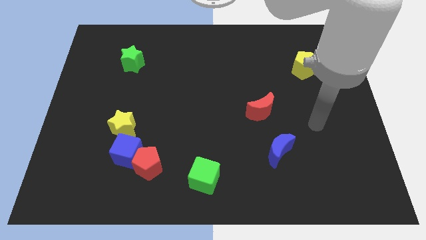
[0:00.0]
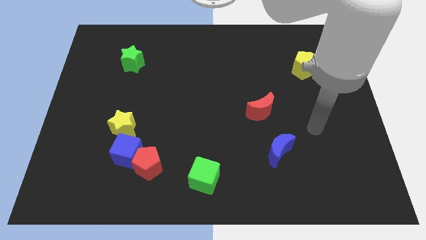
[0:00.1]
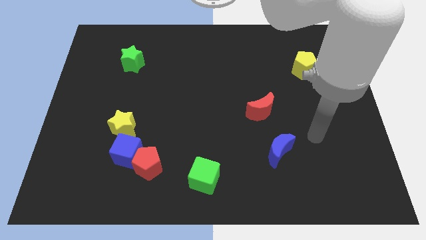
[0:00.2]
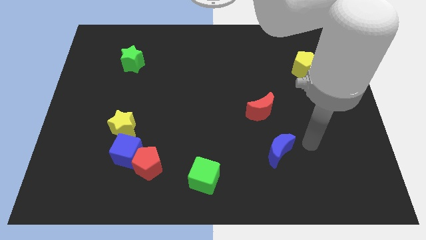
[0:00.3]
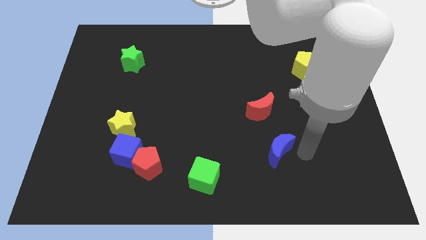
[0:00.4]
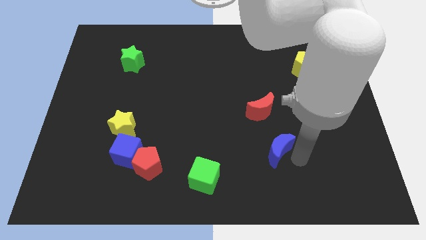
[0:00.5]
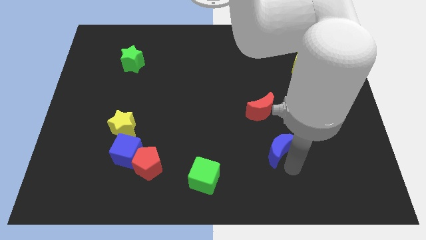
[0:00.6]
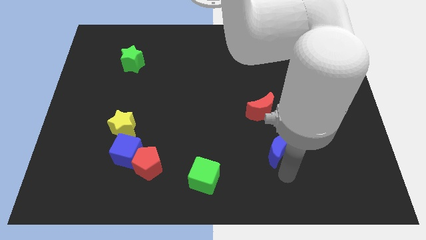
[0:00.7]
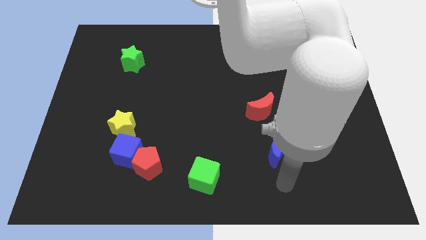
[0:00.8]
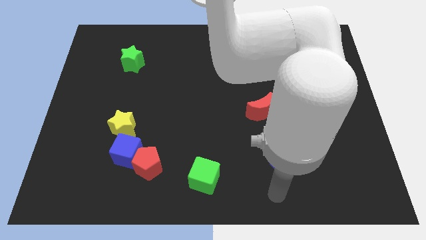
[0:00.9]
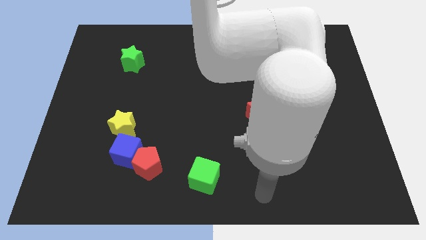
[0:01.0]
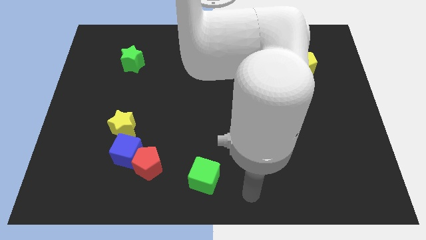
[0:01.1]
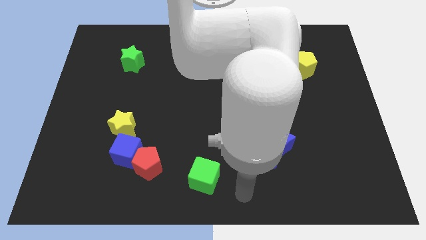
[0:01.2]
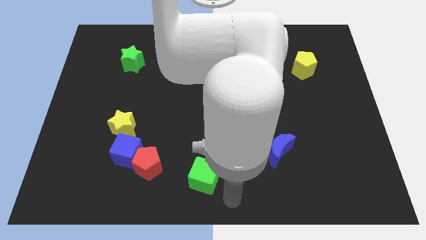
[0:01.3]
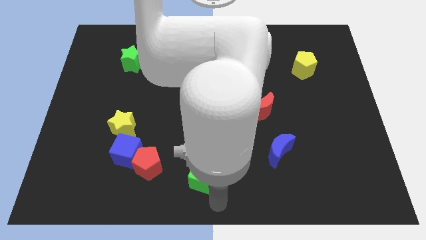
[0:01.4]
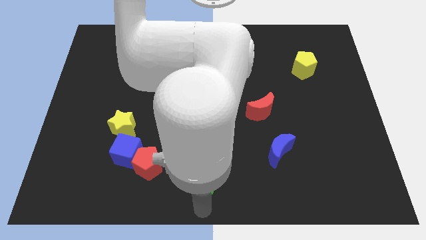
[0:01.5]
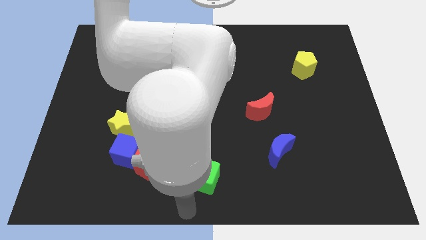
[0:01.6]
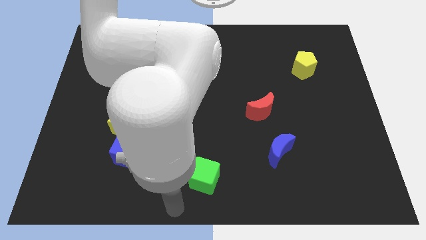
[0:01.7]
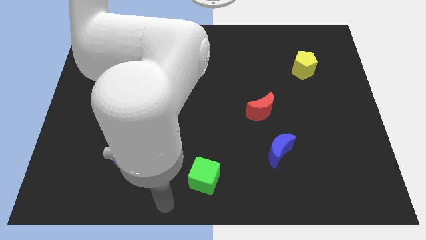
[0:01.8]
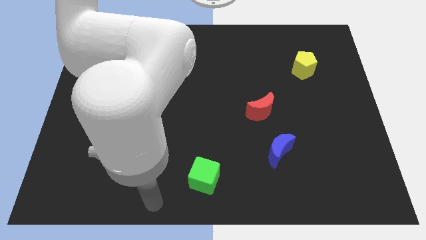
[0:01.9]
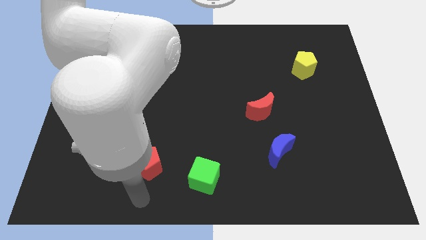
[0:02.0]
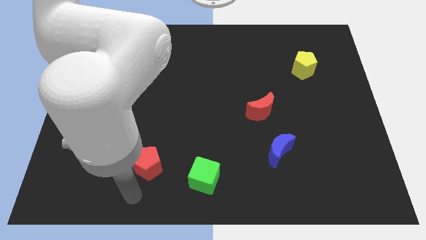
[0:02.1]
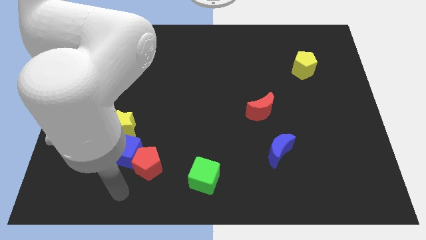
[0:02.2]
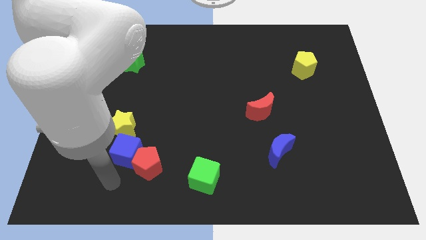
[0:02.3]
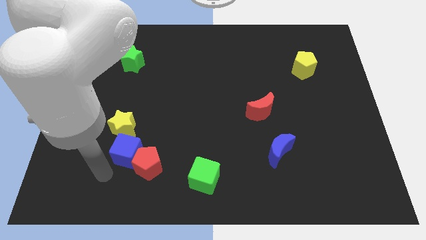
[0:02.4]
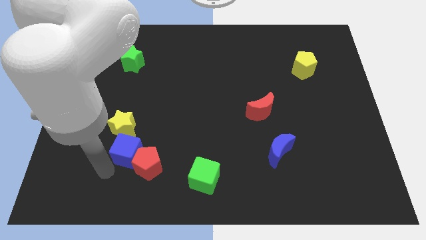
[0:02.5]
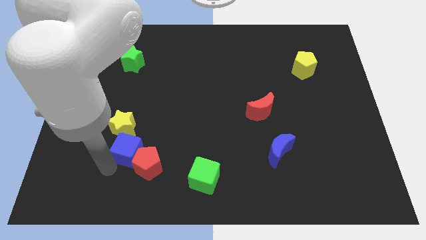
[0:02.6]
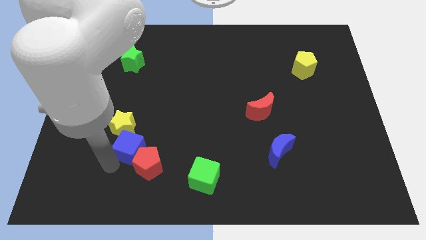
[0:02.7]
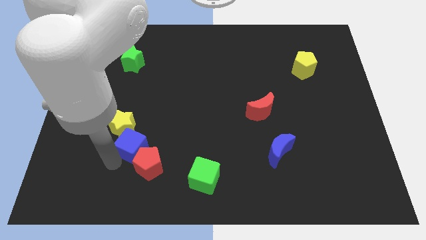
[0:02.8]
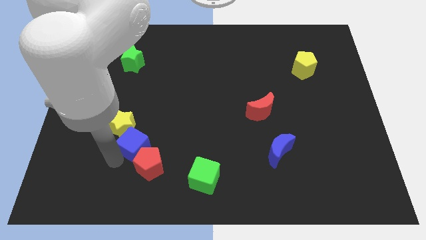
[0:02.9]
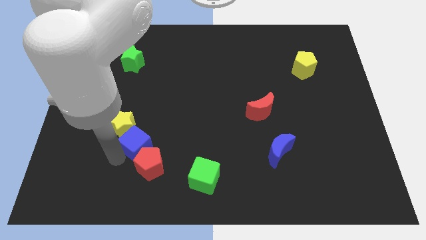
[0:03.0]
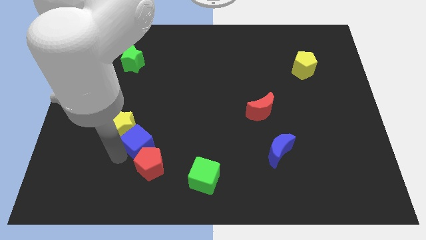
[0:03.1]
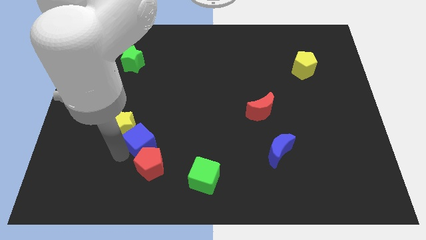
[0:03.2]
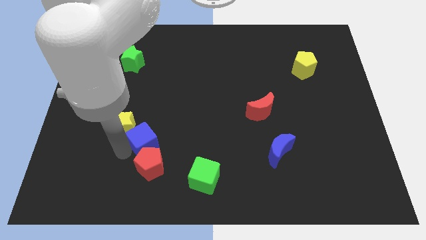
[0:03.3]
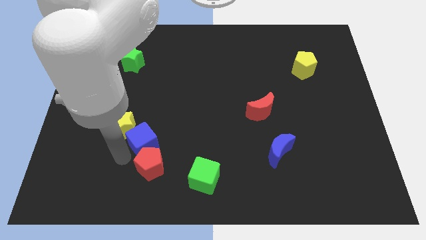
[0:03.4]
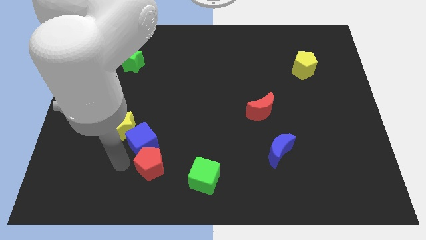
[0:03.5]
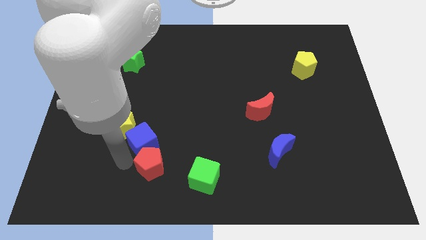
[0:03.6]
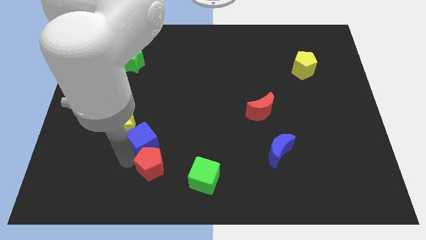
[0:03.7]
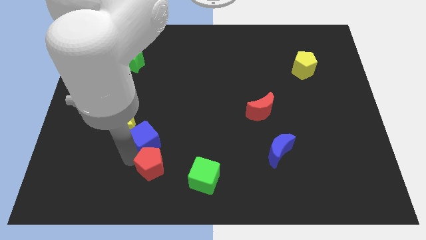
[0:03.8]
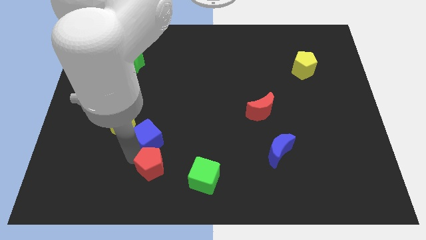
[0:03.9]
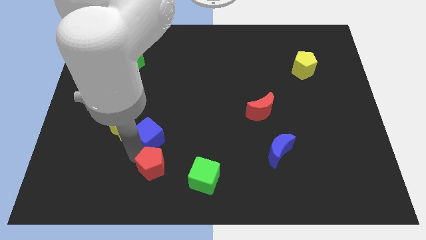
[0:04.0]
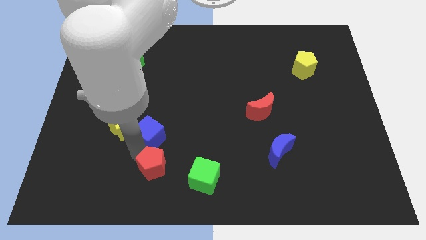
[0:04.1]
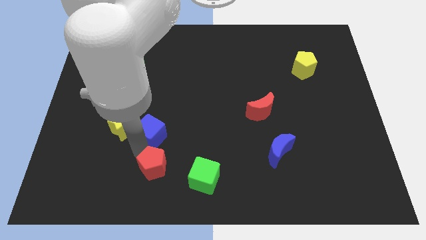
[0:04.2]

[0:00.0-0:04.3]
push the blue cube a bit up and right diagonally

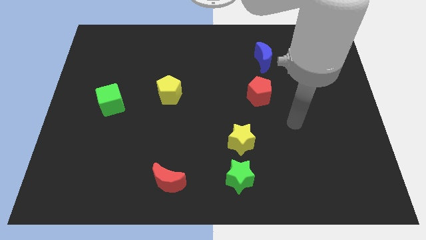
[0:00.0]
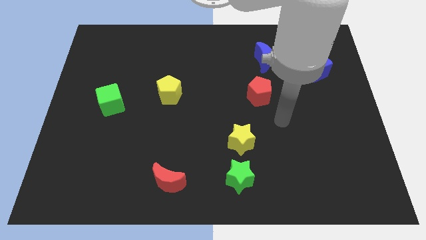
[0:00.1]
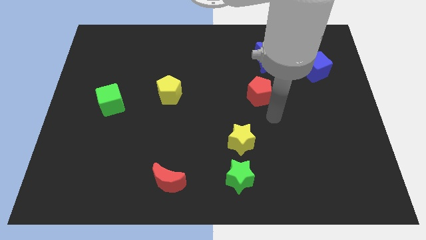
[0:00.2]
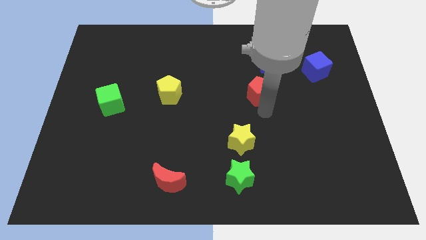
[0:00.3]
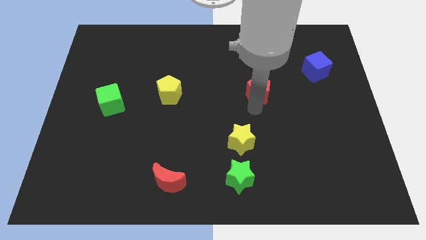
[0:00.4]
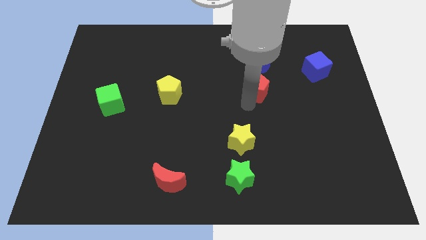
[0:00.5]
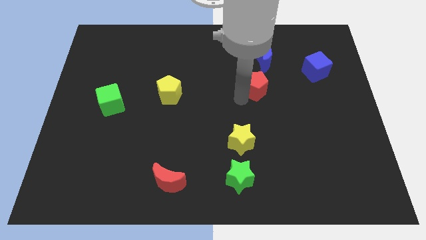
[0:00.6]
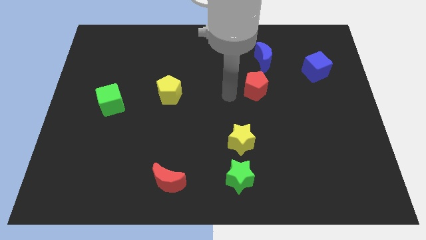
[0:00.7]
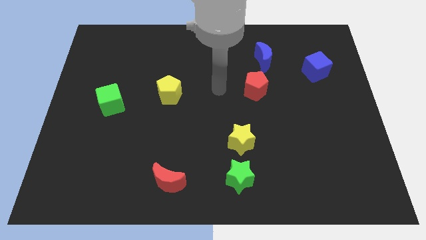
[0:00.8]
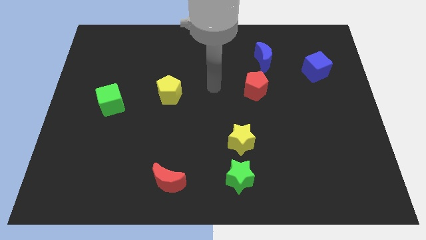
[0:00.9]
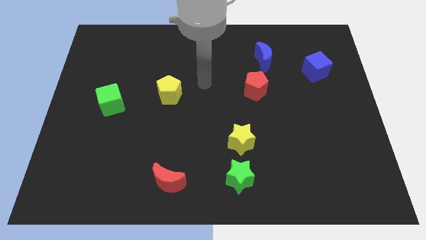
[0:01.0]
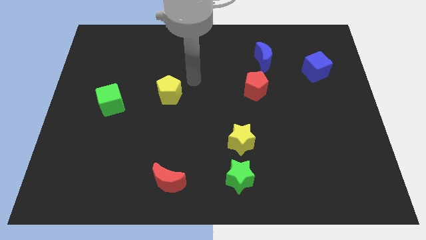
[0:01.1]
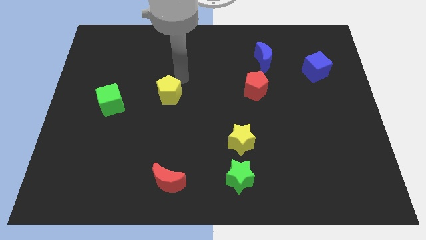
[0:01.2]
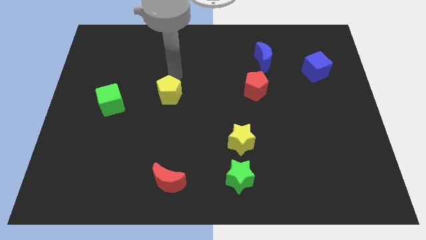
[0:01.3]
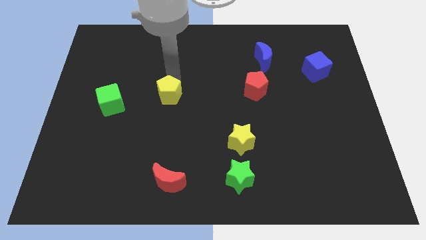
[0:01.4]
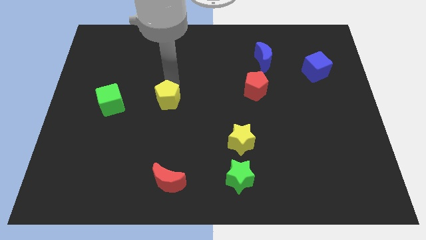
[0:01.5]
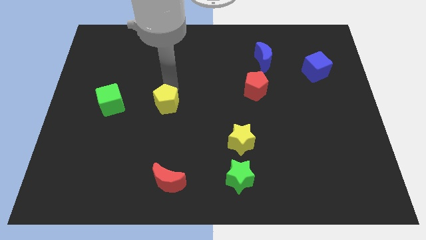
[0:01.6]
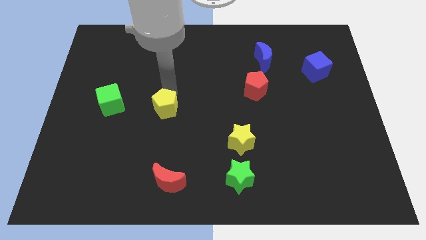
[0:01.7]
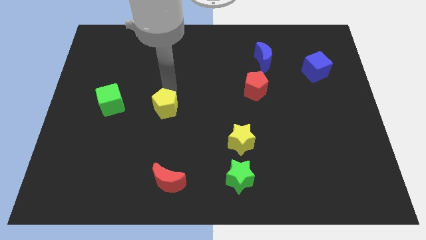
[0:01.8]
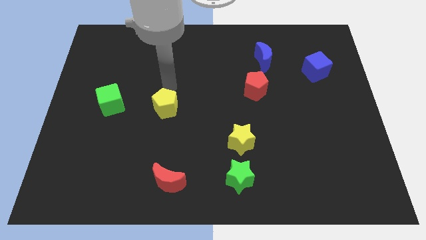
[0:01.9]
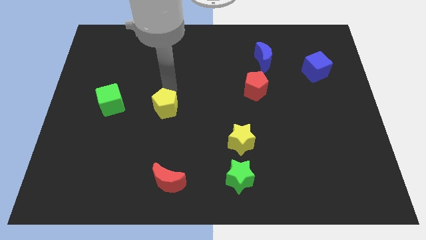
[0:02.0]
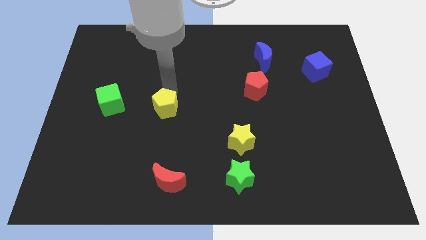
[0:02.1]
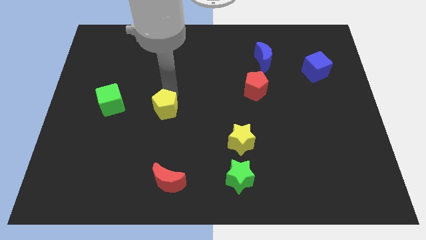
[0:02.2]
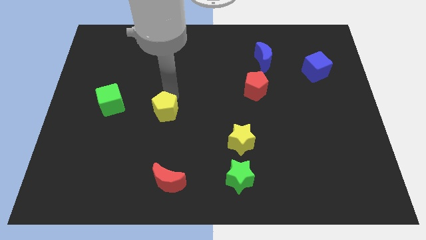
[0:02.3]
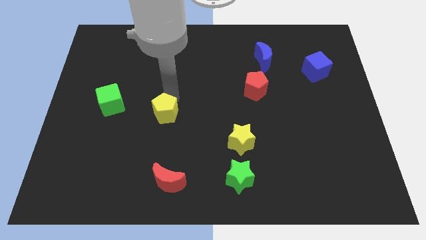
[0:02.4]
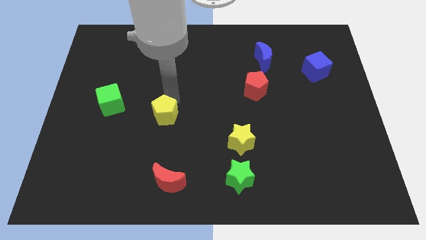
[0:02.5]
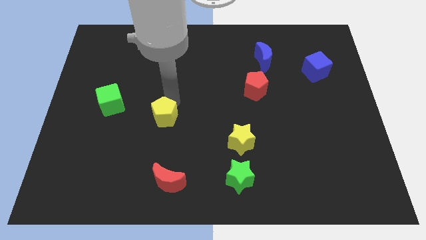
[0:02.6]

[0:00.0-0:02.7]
move the yellow pentagon slightly down

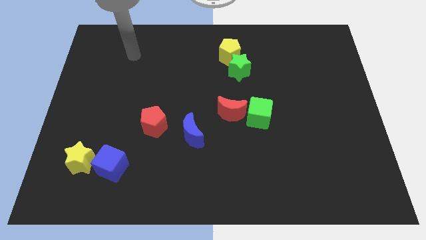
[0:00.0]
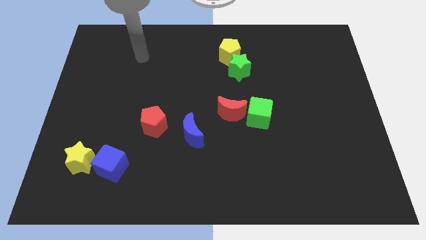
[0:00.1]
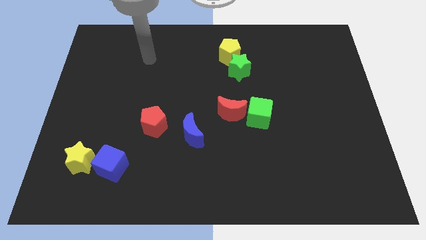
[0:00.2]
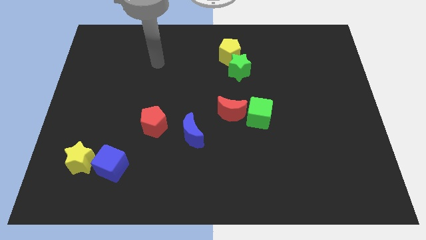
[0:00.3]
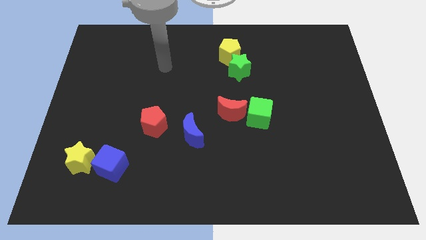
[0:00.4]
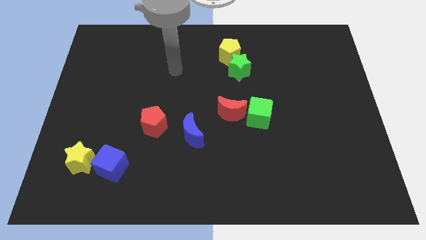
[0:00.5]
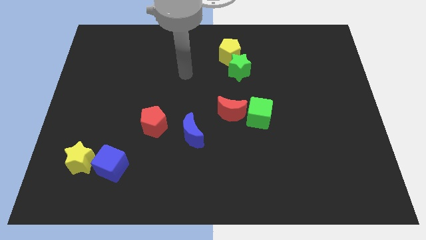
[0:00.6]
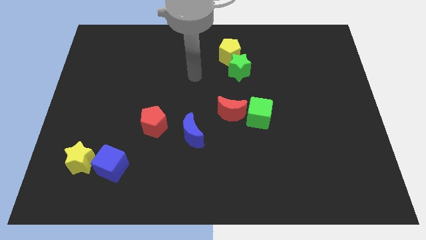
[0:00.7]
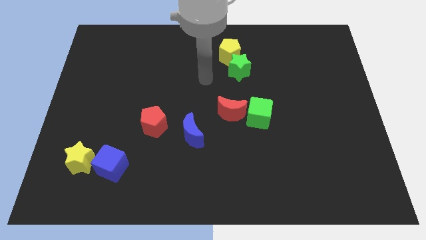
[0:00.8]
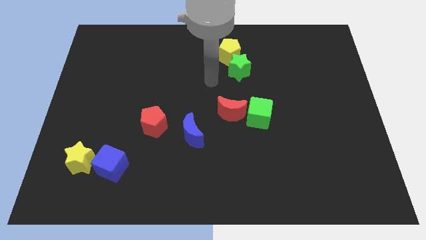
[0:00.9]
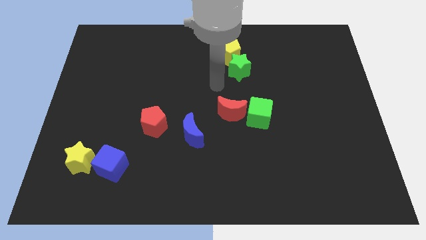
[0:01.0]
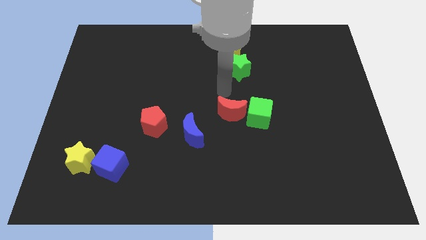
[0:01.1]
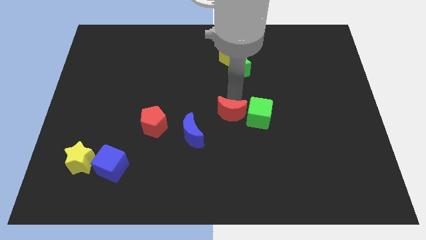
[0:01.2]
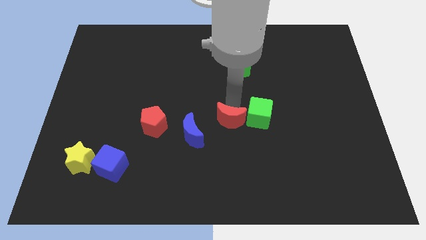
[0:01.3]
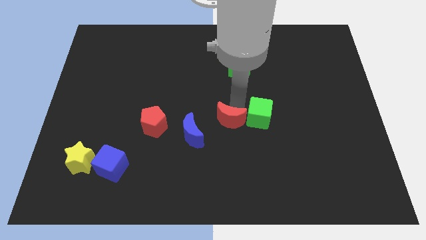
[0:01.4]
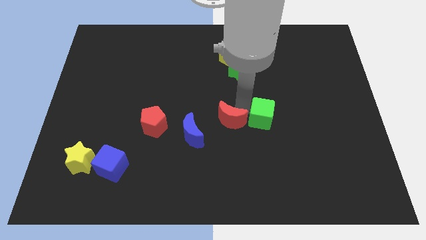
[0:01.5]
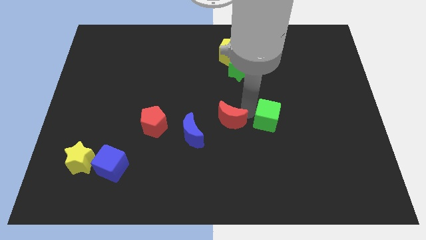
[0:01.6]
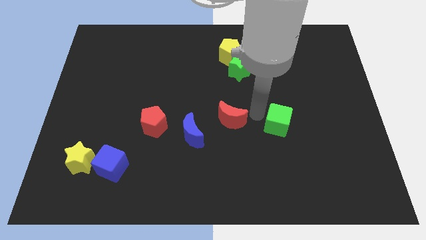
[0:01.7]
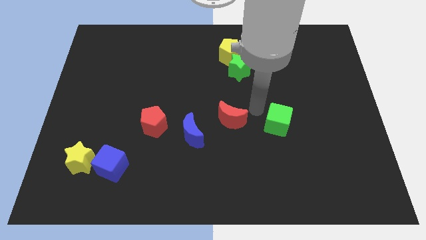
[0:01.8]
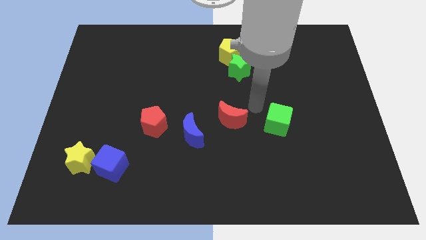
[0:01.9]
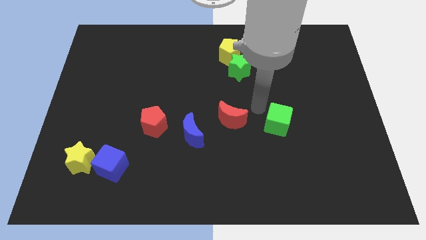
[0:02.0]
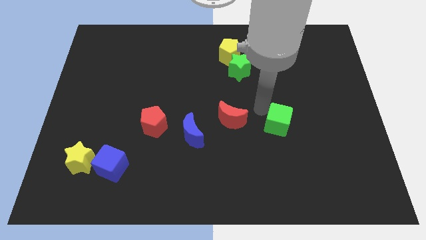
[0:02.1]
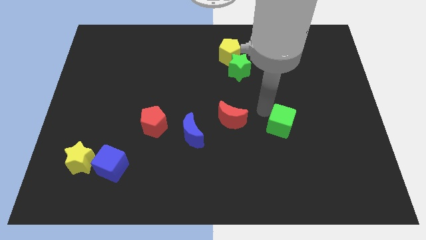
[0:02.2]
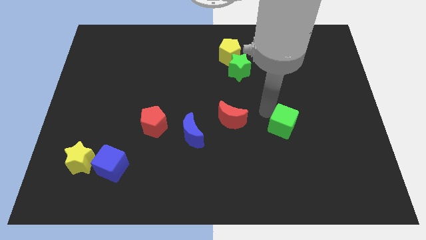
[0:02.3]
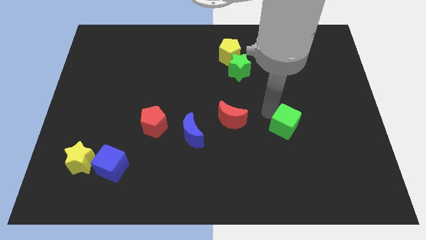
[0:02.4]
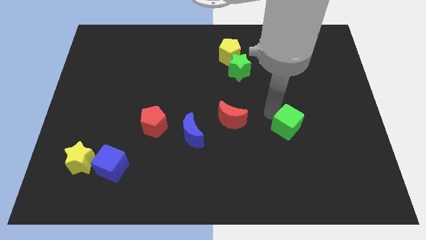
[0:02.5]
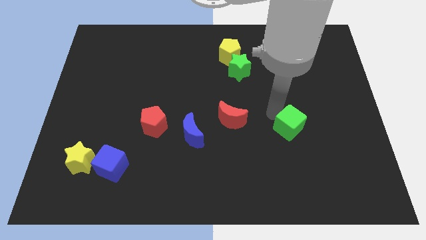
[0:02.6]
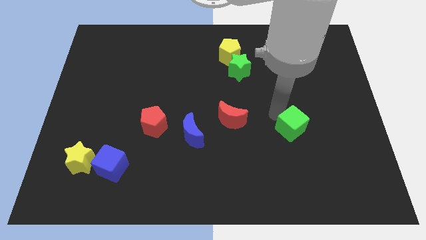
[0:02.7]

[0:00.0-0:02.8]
slightly move the green cube downwards and to the right
